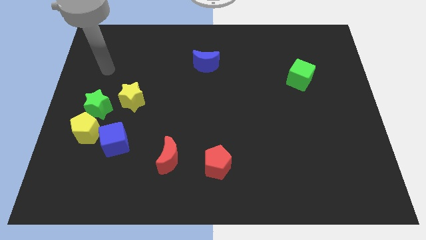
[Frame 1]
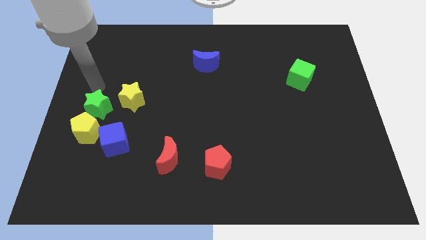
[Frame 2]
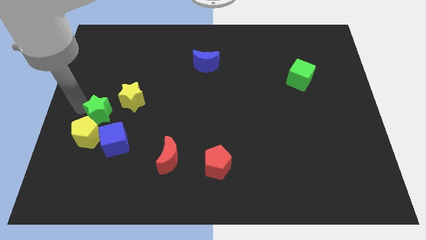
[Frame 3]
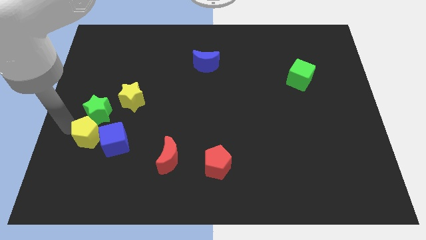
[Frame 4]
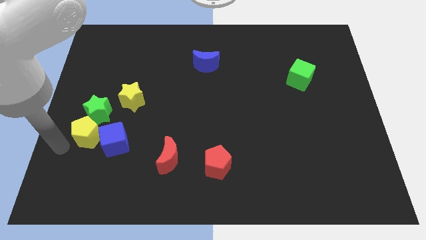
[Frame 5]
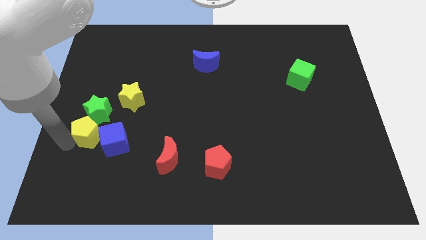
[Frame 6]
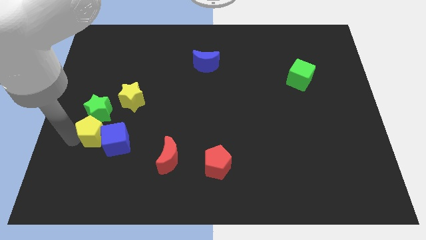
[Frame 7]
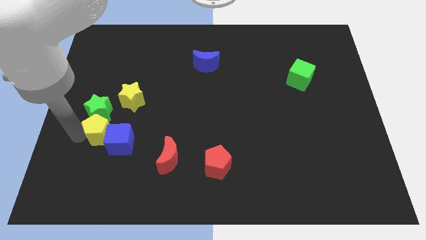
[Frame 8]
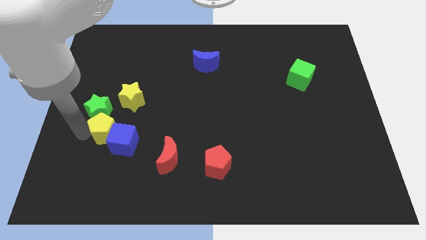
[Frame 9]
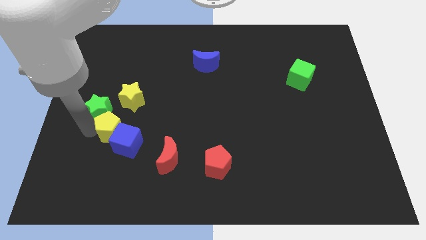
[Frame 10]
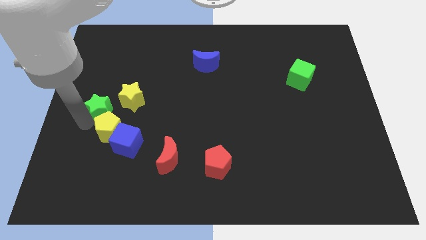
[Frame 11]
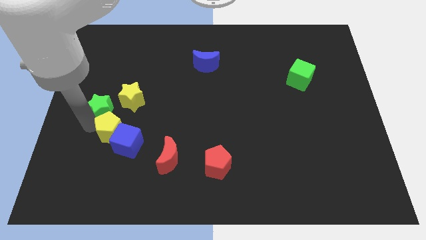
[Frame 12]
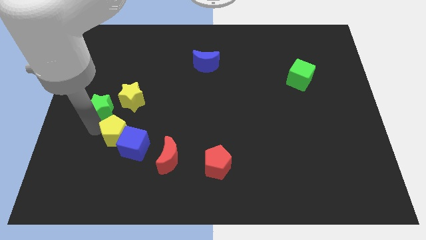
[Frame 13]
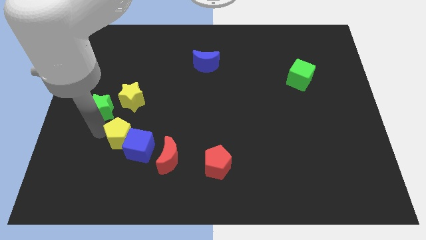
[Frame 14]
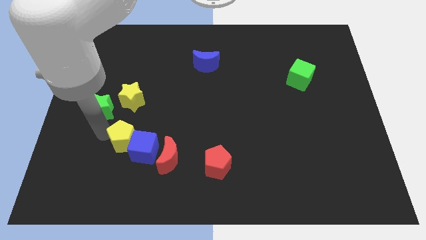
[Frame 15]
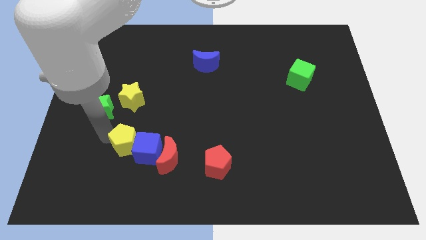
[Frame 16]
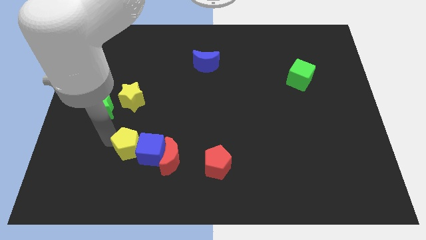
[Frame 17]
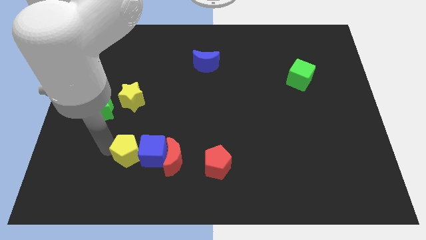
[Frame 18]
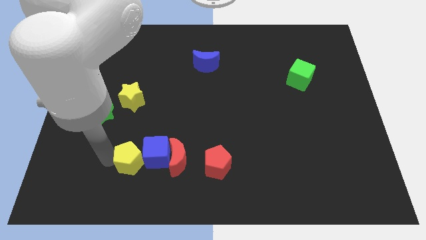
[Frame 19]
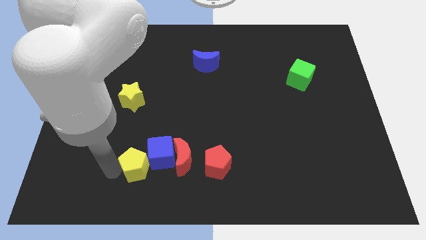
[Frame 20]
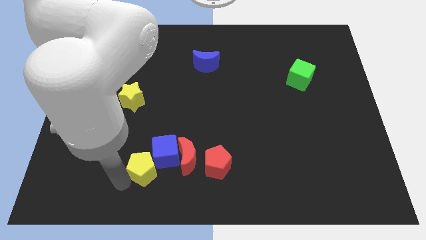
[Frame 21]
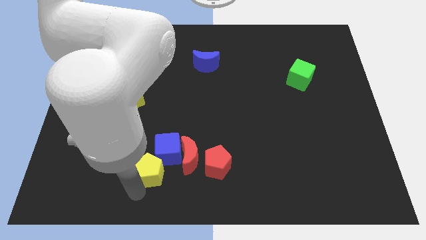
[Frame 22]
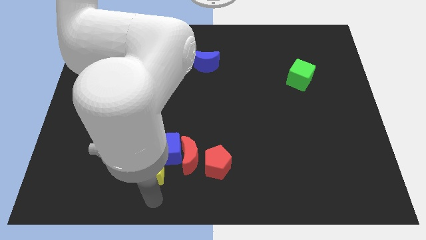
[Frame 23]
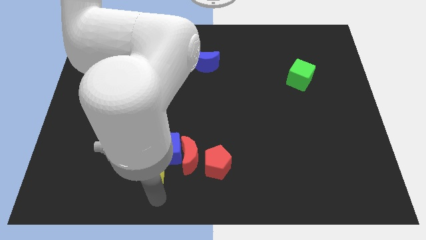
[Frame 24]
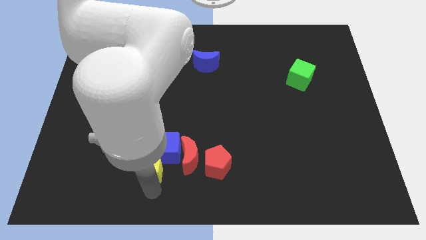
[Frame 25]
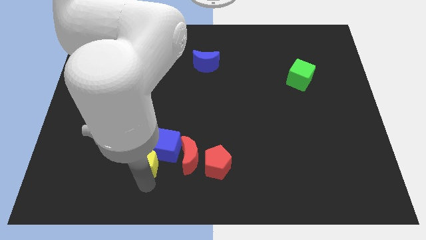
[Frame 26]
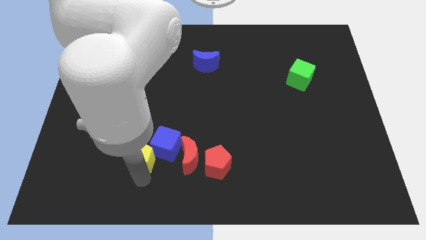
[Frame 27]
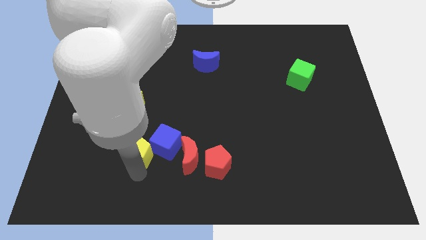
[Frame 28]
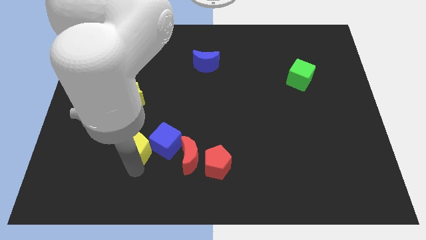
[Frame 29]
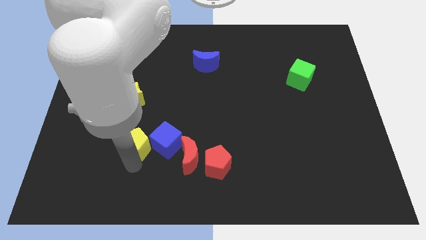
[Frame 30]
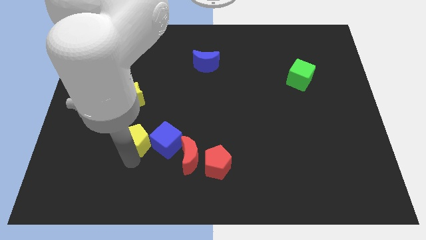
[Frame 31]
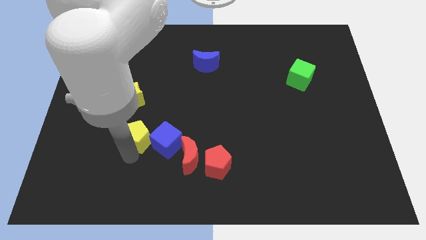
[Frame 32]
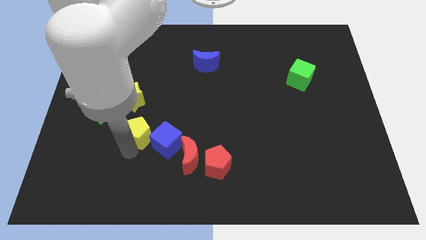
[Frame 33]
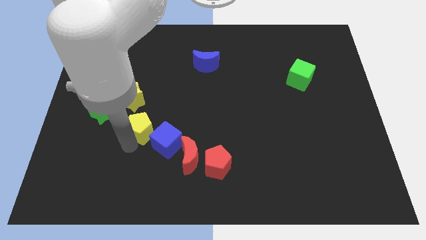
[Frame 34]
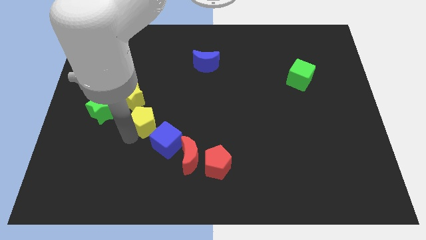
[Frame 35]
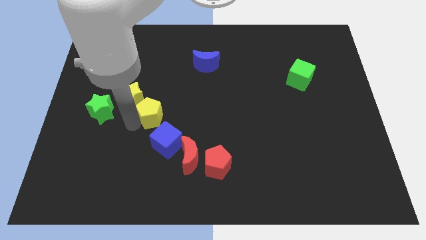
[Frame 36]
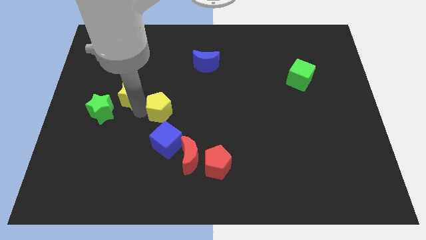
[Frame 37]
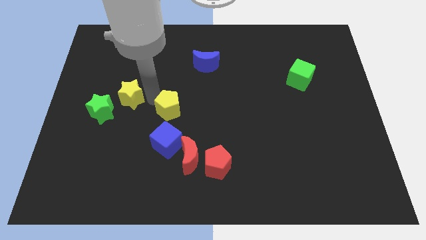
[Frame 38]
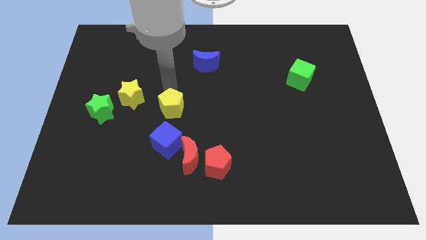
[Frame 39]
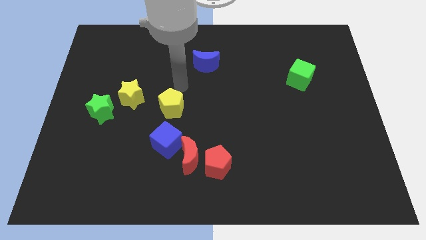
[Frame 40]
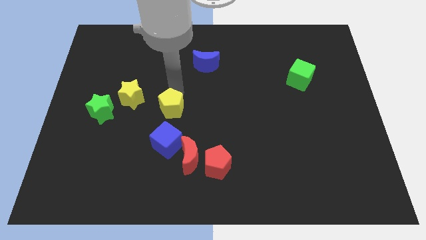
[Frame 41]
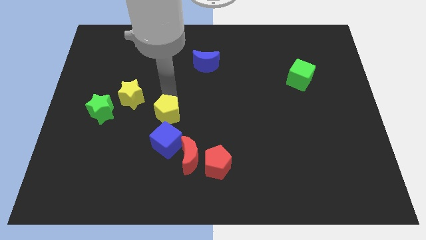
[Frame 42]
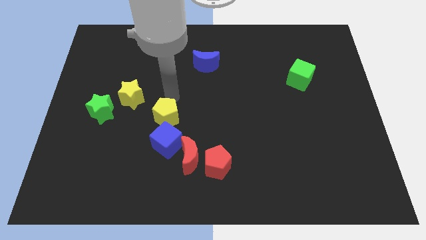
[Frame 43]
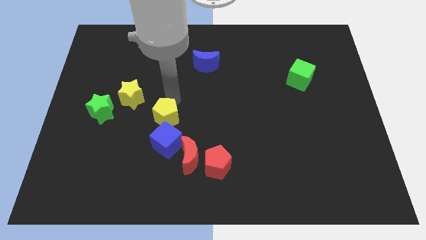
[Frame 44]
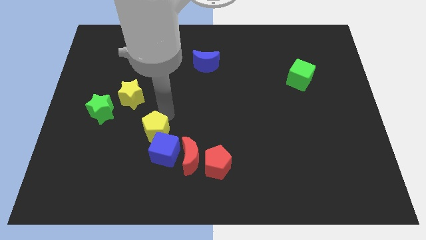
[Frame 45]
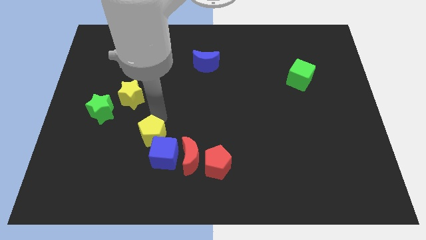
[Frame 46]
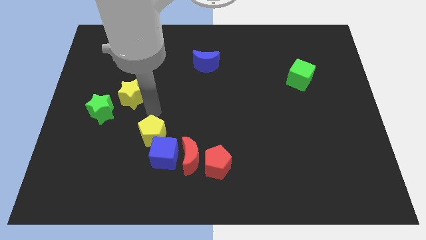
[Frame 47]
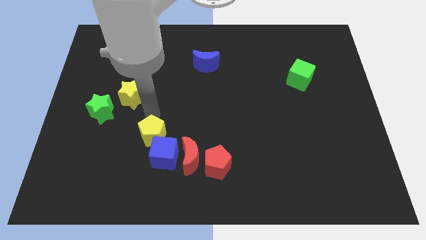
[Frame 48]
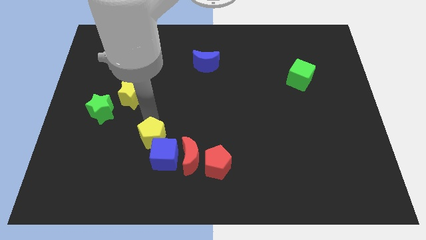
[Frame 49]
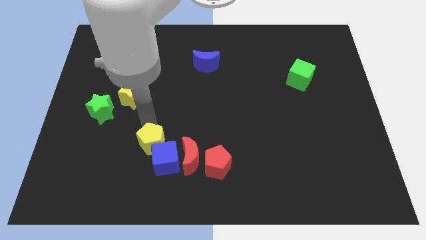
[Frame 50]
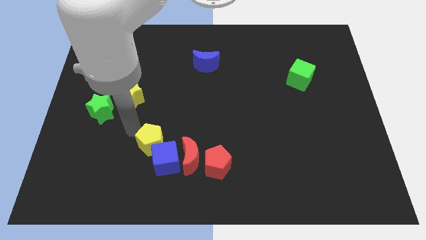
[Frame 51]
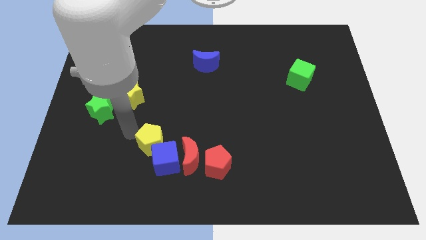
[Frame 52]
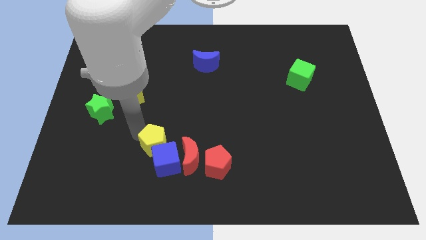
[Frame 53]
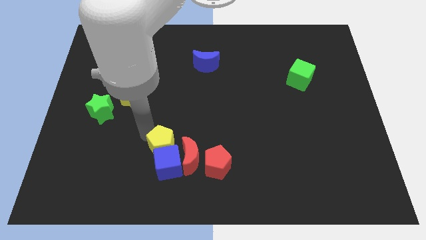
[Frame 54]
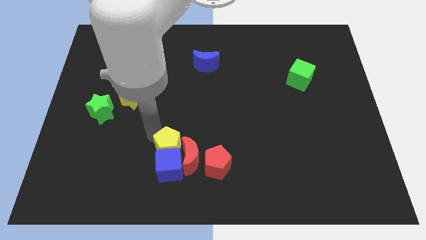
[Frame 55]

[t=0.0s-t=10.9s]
push the yellow pentagon towards the red moon

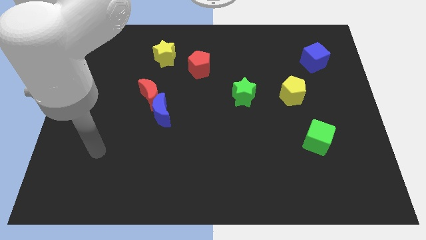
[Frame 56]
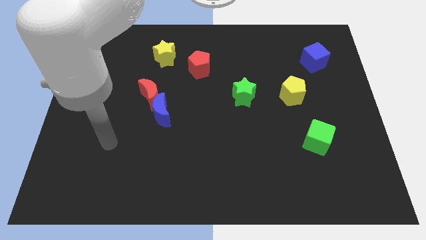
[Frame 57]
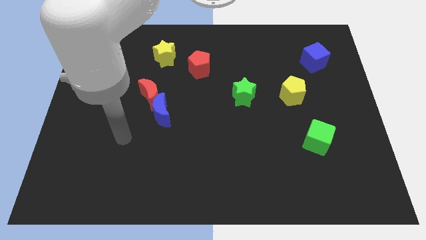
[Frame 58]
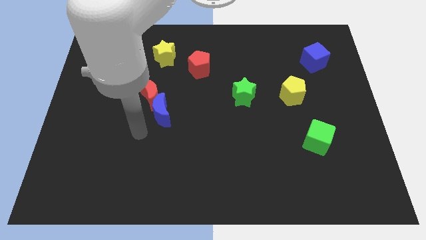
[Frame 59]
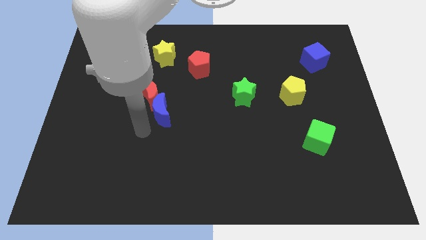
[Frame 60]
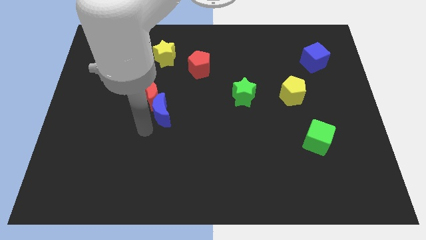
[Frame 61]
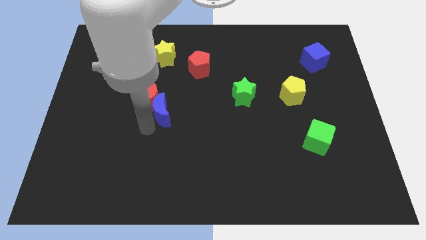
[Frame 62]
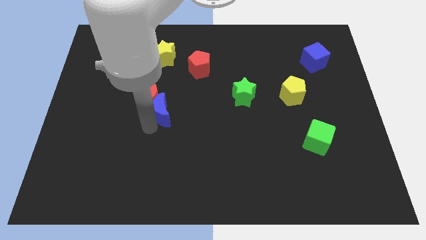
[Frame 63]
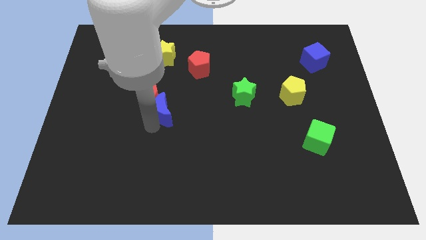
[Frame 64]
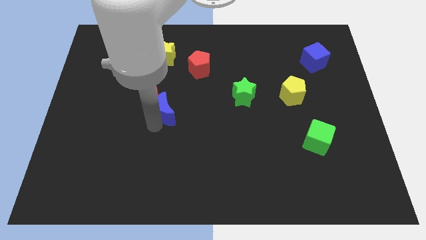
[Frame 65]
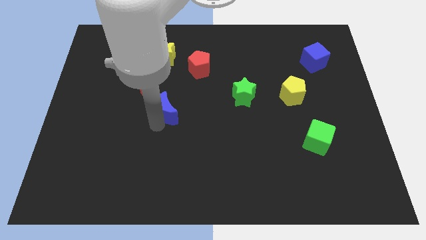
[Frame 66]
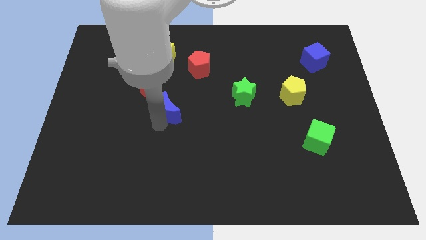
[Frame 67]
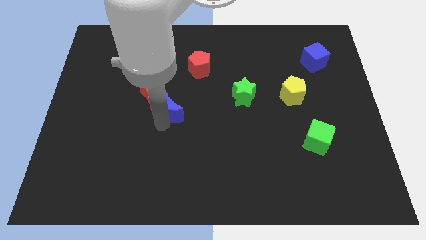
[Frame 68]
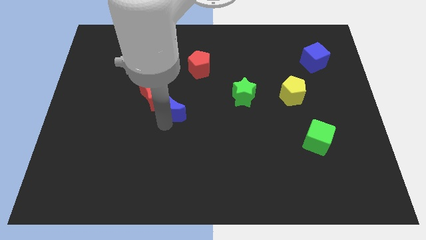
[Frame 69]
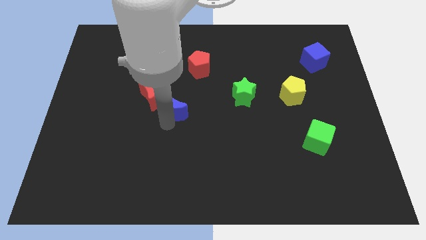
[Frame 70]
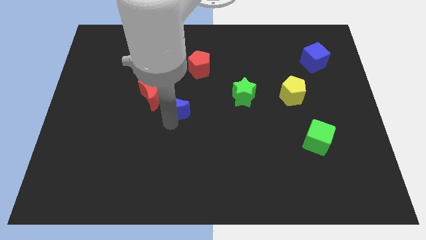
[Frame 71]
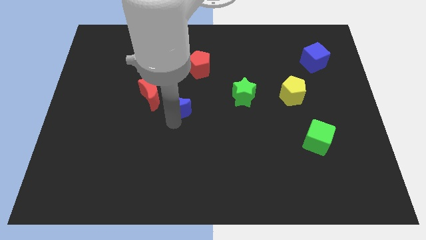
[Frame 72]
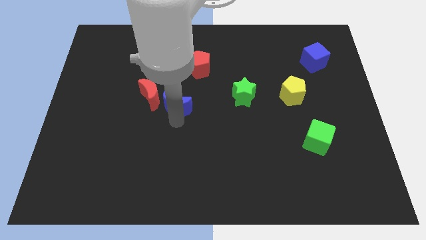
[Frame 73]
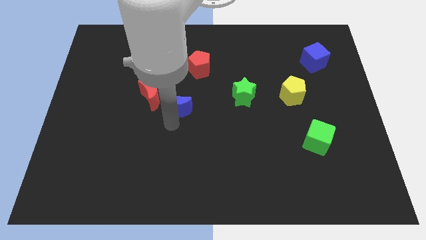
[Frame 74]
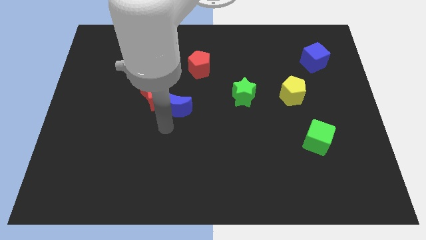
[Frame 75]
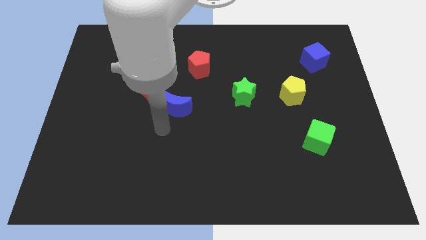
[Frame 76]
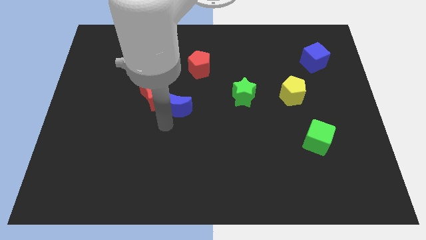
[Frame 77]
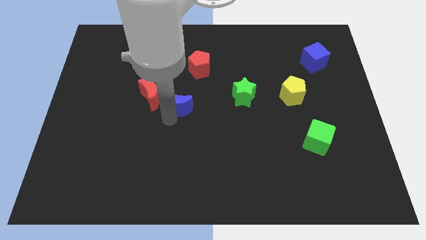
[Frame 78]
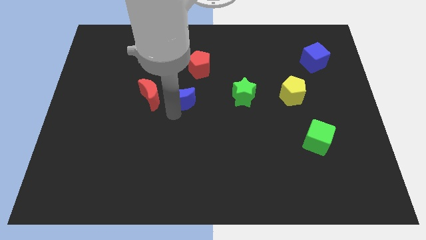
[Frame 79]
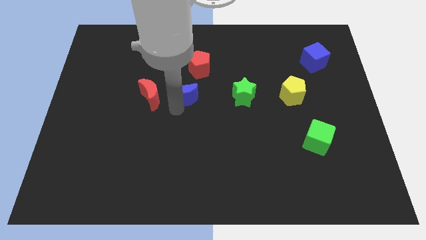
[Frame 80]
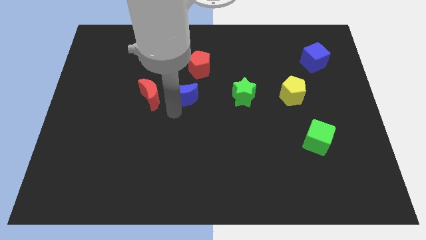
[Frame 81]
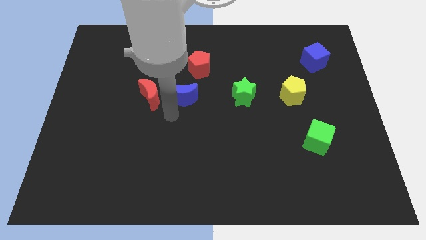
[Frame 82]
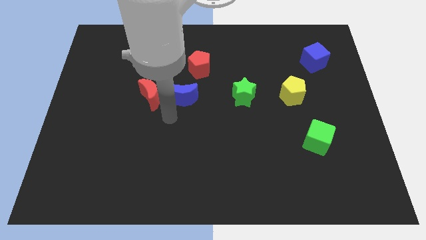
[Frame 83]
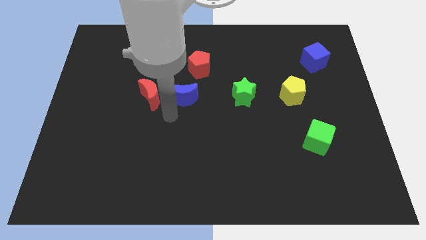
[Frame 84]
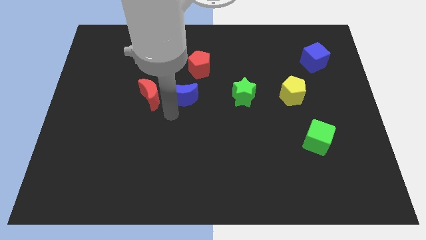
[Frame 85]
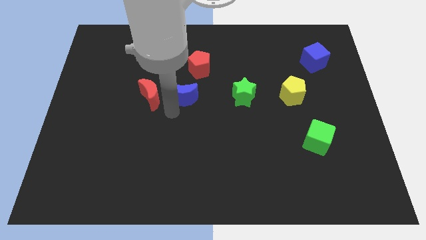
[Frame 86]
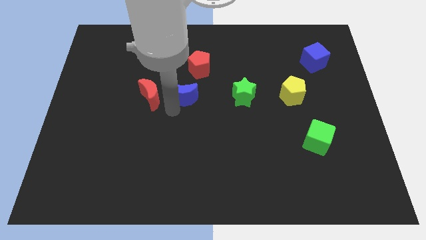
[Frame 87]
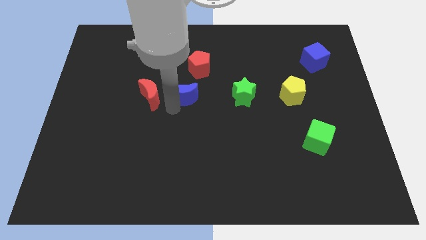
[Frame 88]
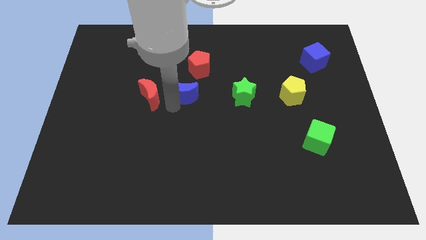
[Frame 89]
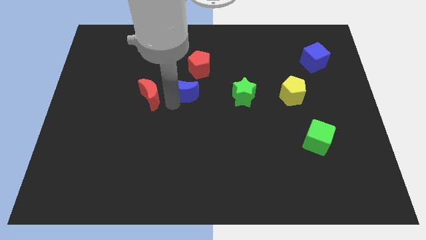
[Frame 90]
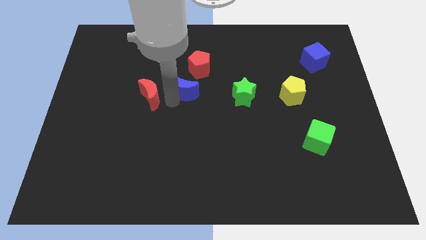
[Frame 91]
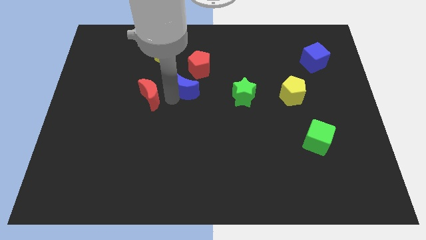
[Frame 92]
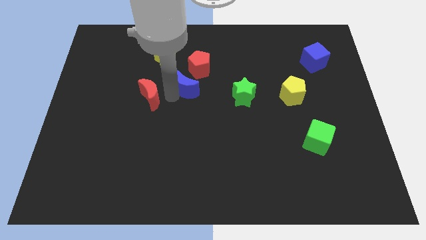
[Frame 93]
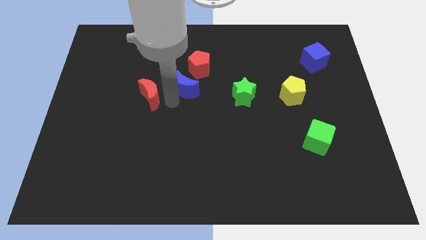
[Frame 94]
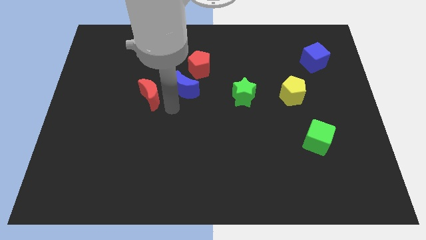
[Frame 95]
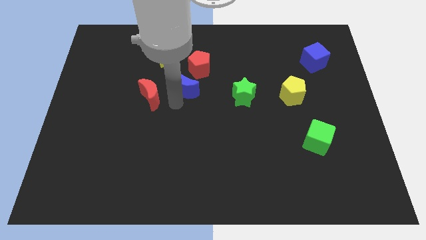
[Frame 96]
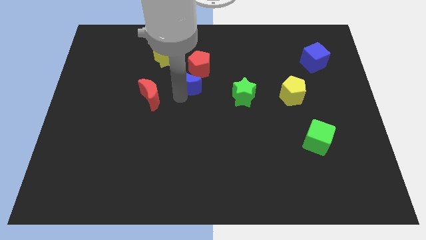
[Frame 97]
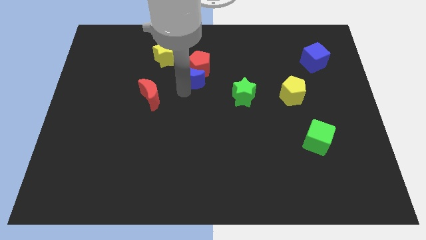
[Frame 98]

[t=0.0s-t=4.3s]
slide the blue moon next to the red pentagon
